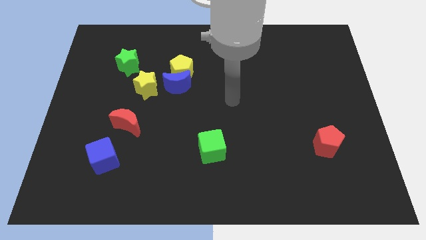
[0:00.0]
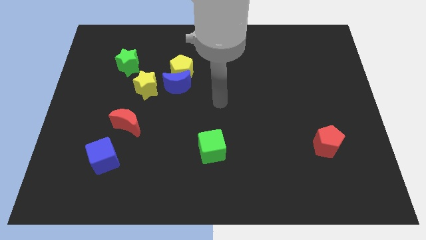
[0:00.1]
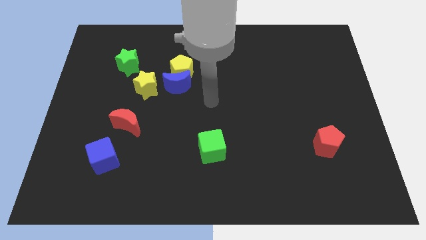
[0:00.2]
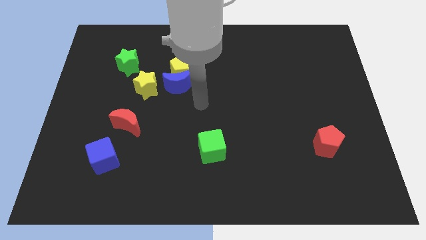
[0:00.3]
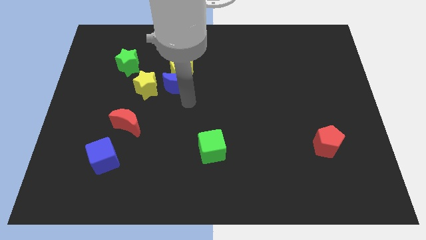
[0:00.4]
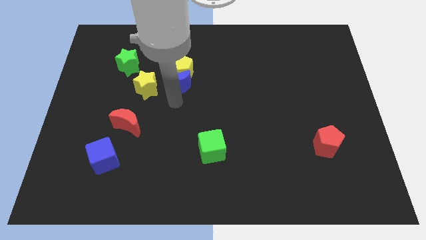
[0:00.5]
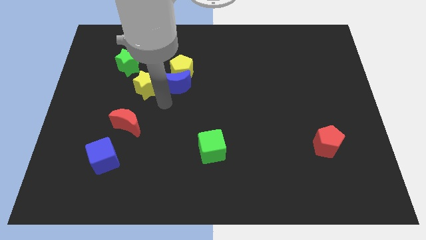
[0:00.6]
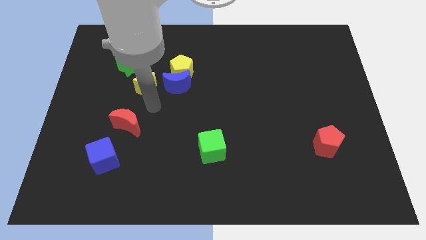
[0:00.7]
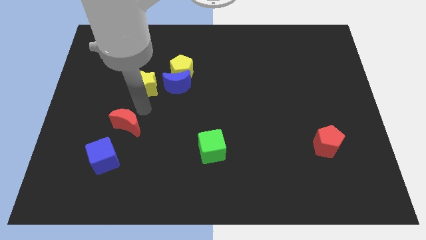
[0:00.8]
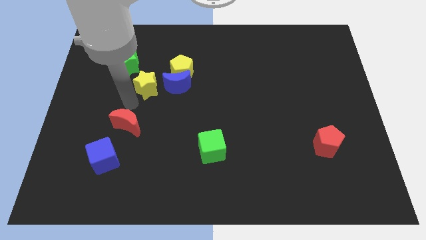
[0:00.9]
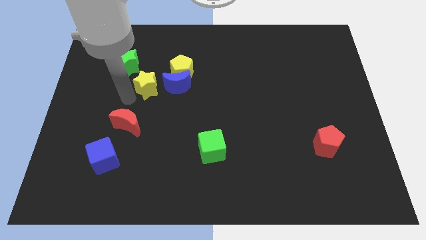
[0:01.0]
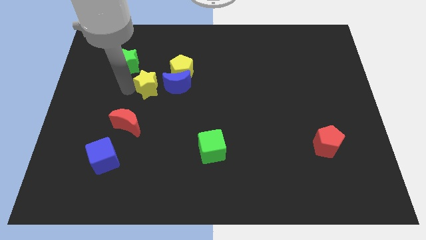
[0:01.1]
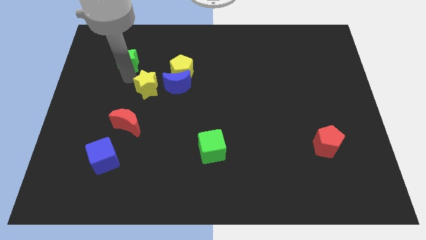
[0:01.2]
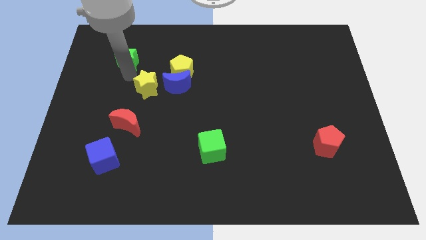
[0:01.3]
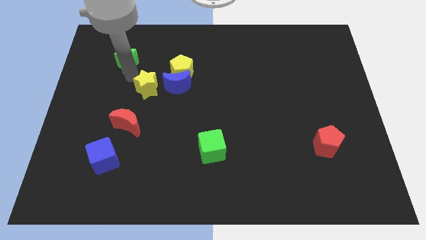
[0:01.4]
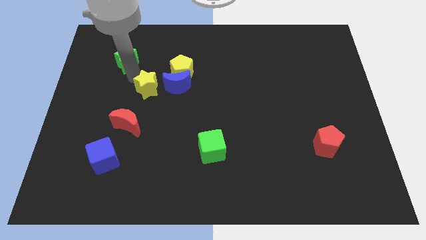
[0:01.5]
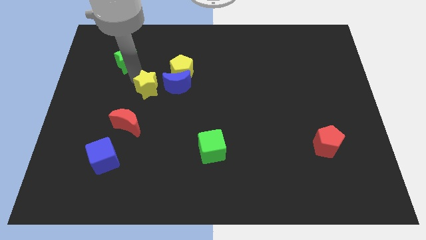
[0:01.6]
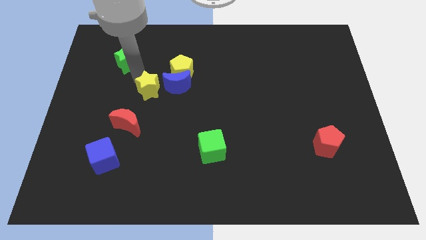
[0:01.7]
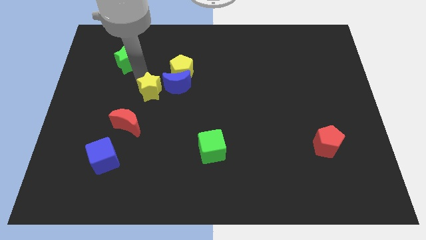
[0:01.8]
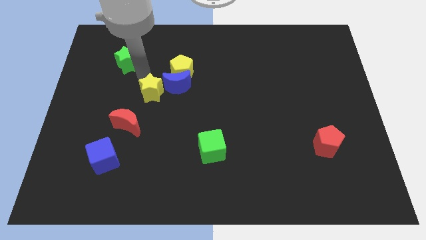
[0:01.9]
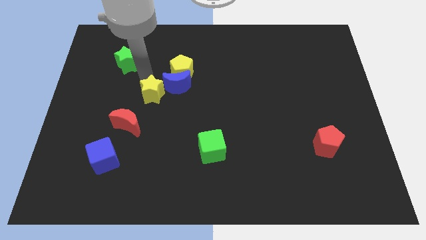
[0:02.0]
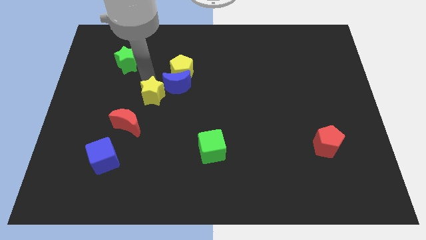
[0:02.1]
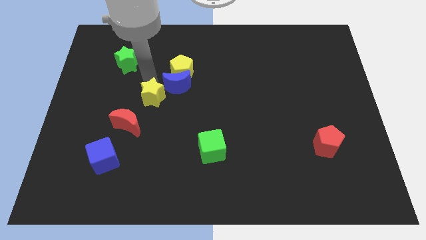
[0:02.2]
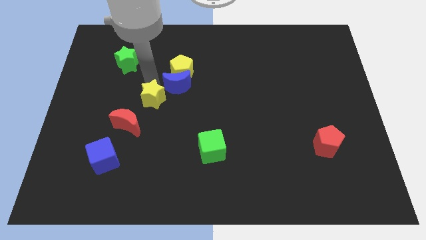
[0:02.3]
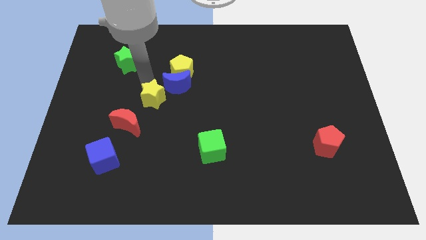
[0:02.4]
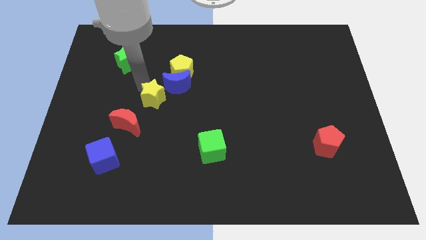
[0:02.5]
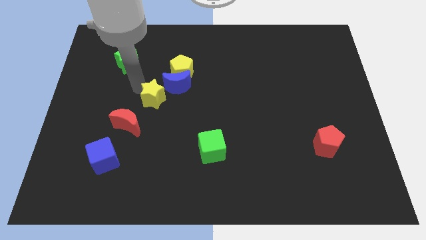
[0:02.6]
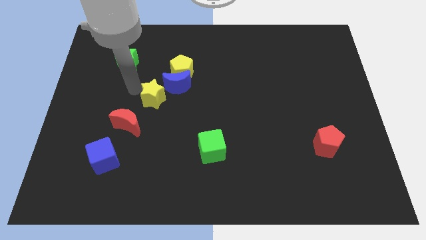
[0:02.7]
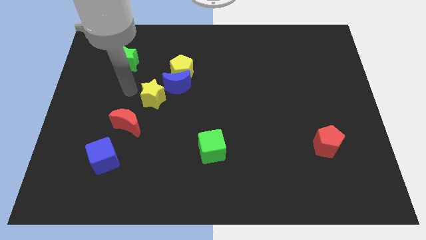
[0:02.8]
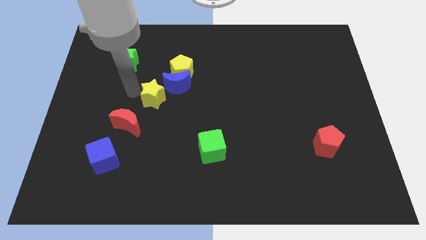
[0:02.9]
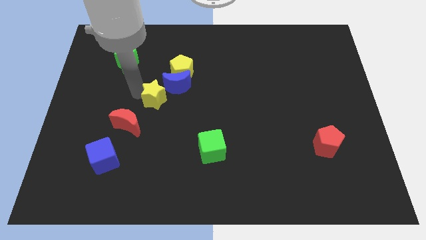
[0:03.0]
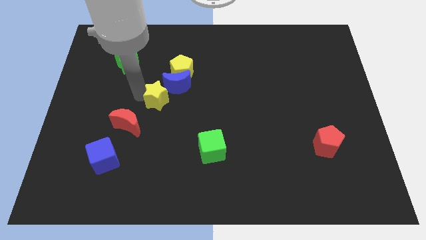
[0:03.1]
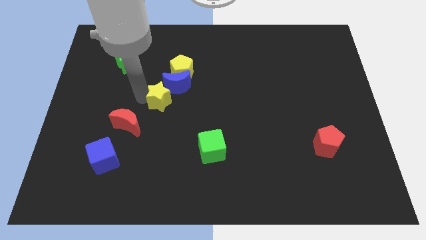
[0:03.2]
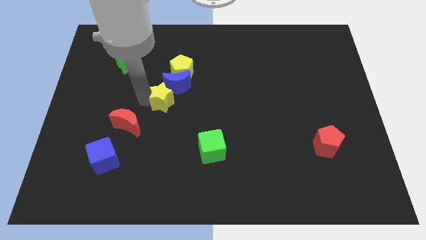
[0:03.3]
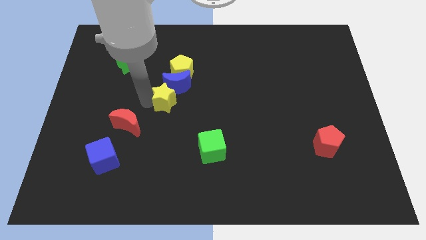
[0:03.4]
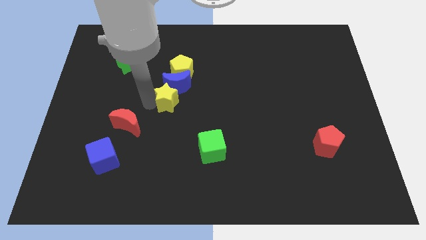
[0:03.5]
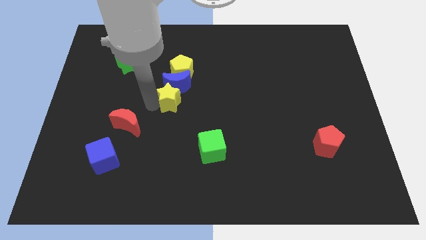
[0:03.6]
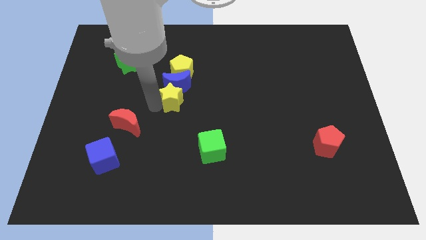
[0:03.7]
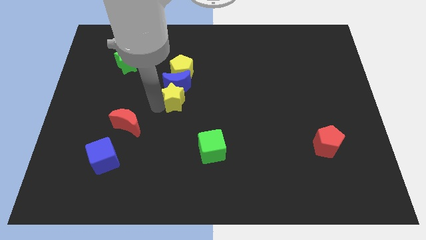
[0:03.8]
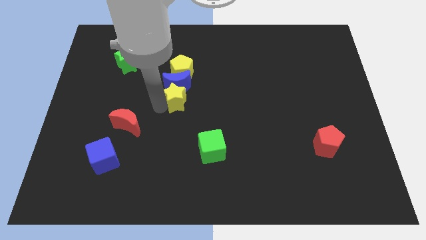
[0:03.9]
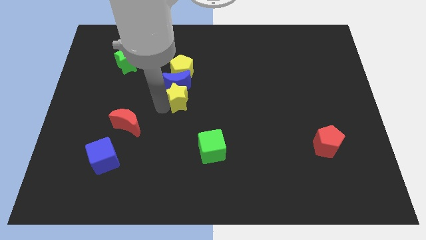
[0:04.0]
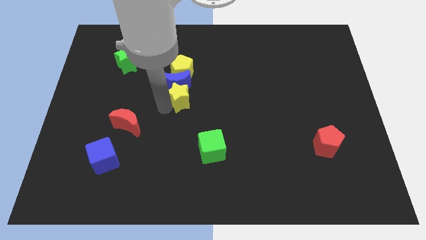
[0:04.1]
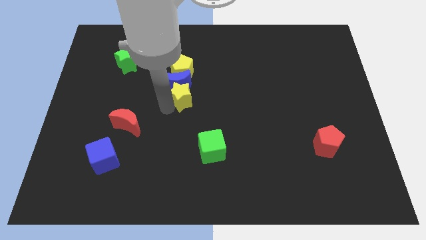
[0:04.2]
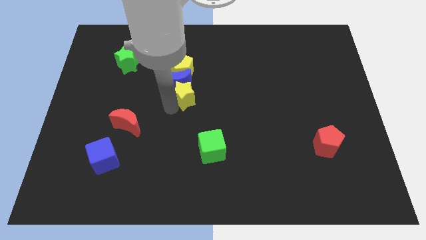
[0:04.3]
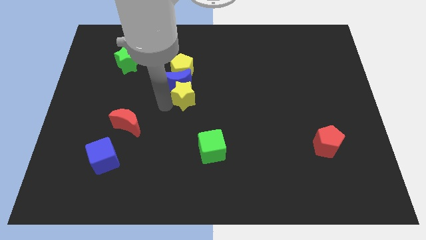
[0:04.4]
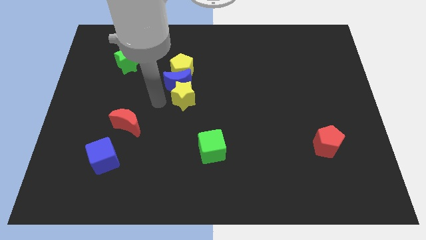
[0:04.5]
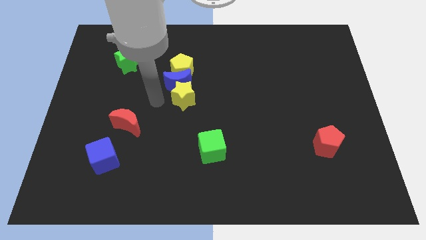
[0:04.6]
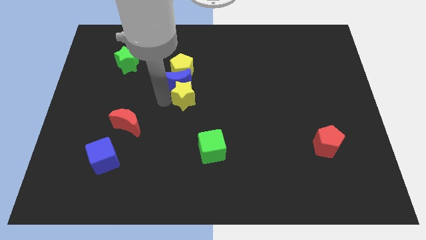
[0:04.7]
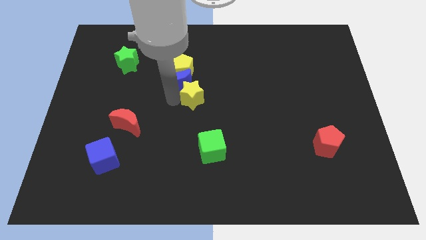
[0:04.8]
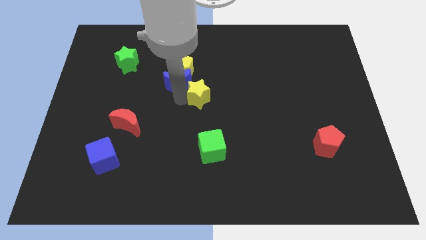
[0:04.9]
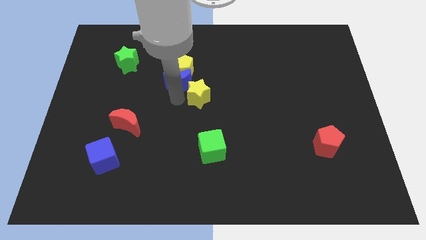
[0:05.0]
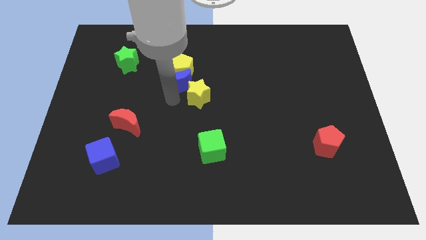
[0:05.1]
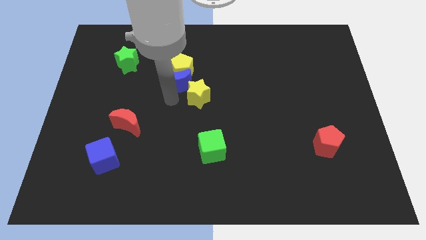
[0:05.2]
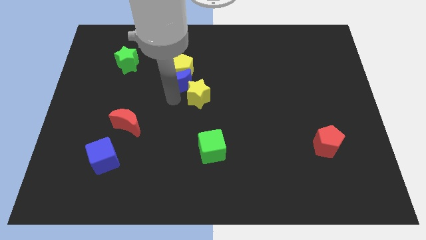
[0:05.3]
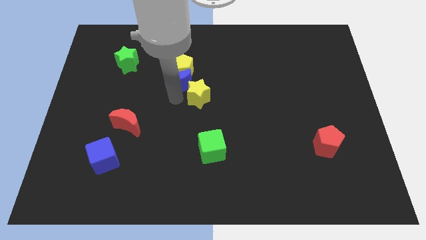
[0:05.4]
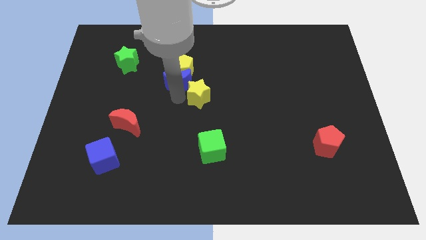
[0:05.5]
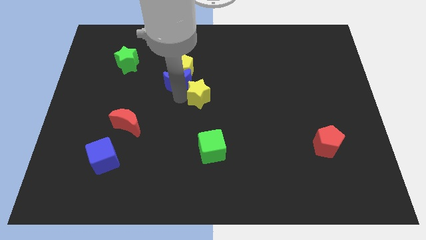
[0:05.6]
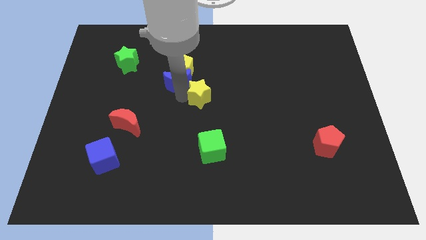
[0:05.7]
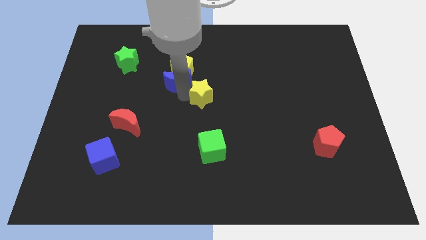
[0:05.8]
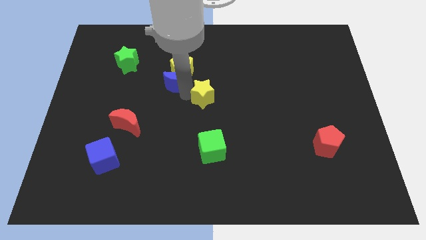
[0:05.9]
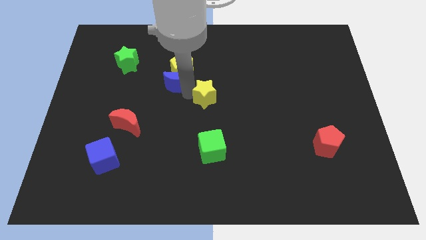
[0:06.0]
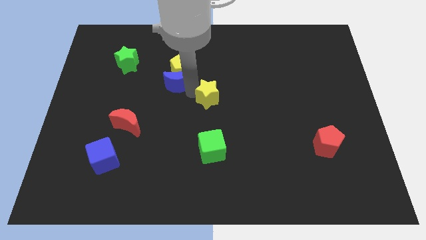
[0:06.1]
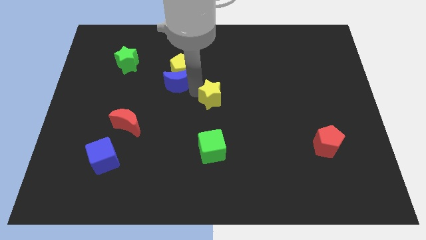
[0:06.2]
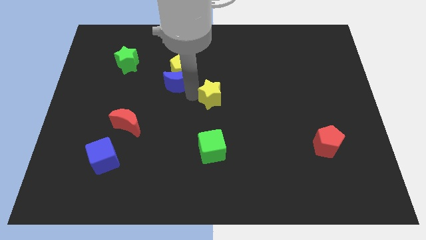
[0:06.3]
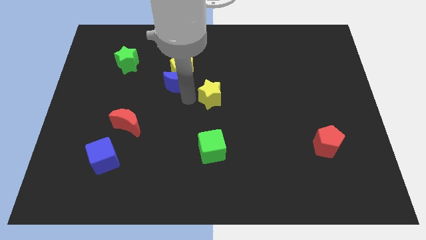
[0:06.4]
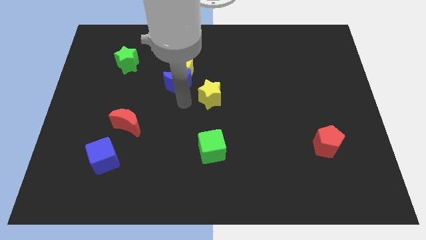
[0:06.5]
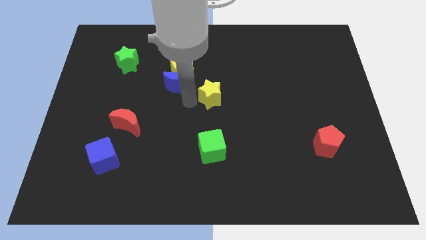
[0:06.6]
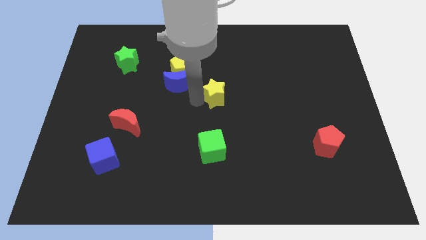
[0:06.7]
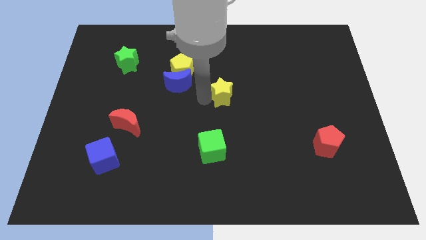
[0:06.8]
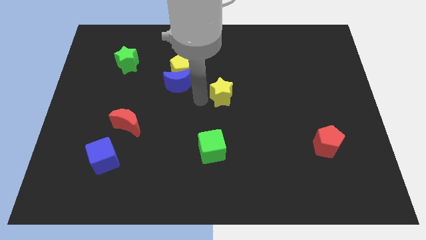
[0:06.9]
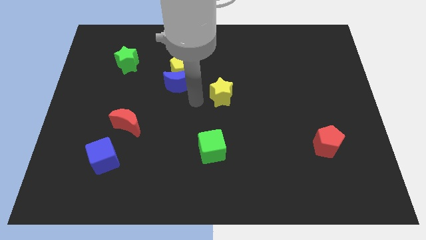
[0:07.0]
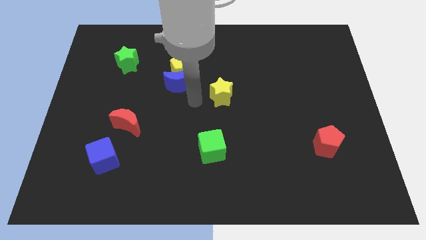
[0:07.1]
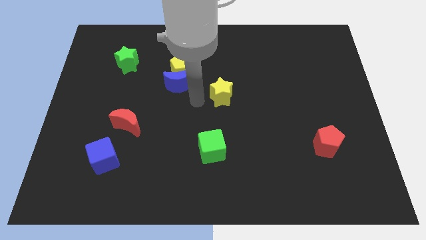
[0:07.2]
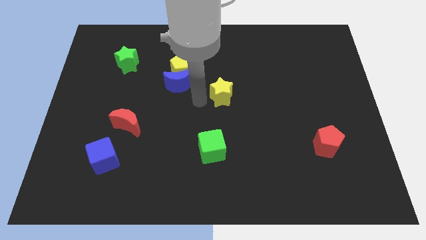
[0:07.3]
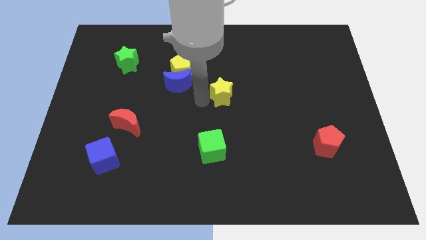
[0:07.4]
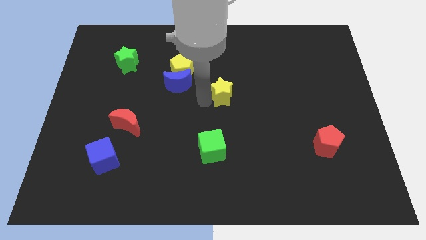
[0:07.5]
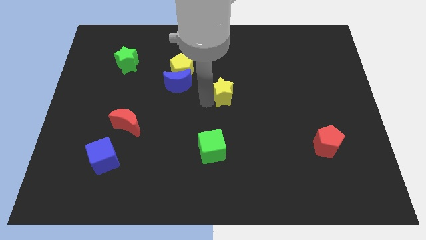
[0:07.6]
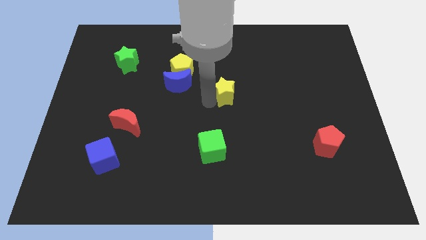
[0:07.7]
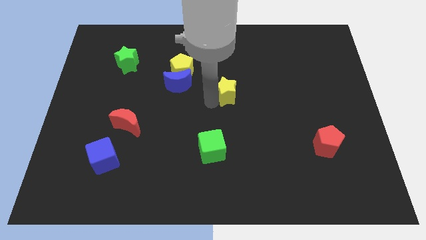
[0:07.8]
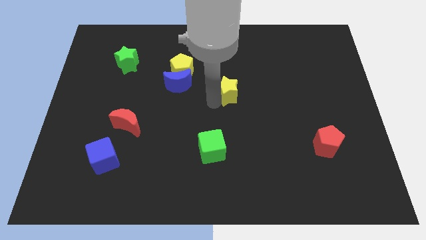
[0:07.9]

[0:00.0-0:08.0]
slide the yellow star to the right

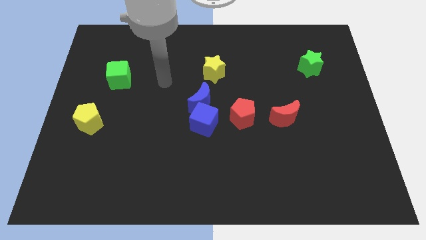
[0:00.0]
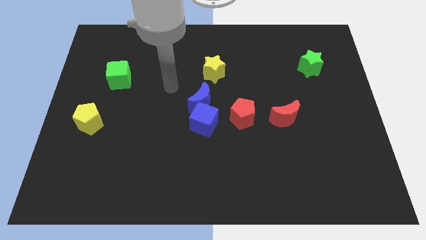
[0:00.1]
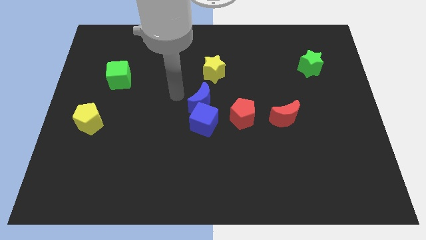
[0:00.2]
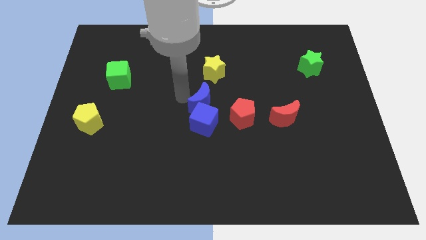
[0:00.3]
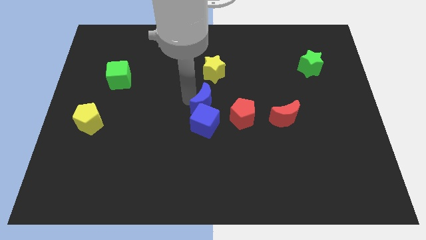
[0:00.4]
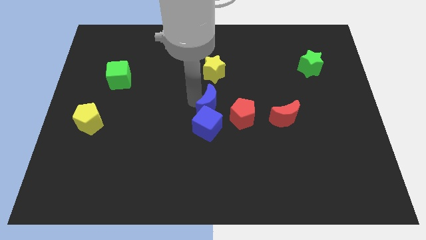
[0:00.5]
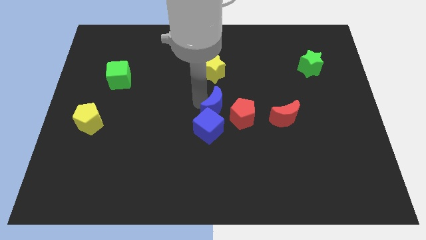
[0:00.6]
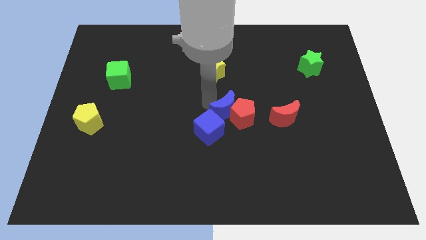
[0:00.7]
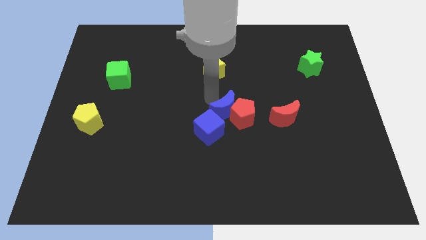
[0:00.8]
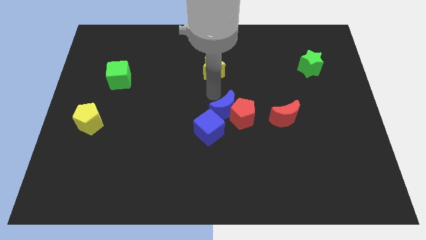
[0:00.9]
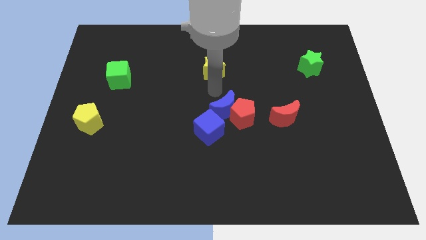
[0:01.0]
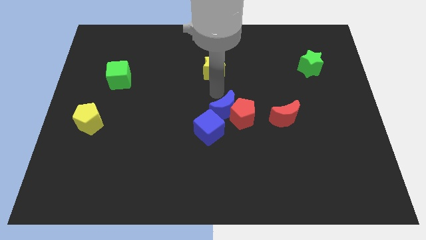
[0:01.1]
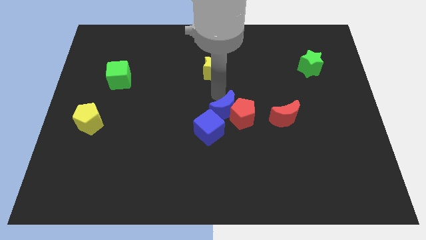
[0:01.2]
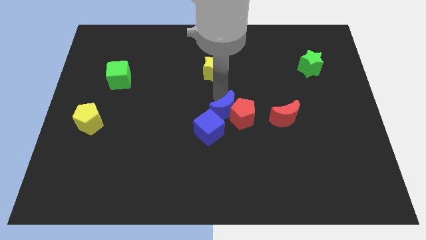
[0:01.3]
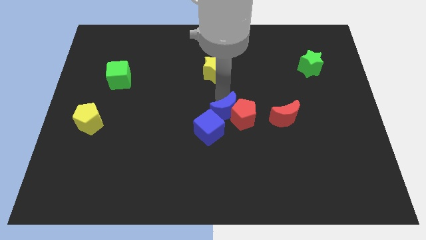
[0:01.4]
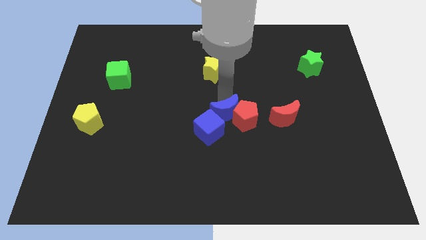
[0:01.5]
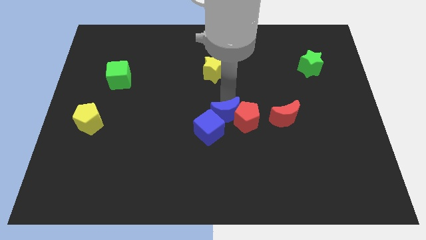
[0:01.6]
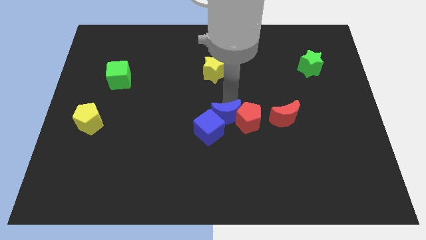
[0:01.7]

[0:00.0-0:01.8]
slide the blue moon diagonally downwards and right somewhat
